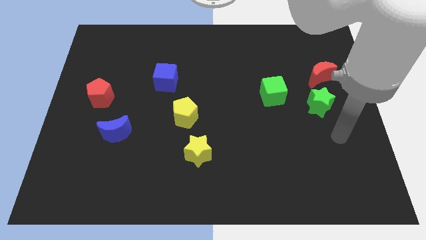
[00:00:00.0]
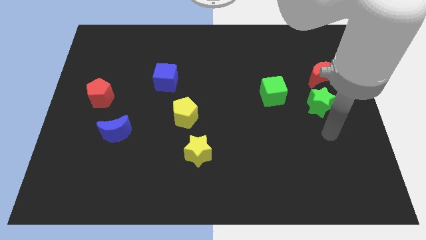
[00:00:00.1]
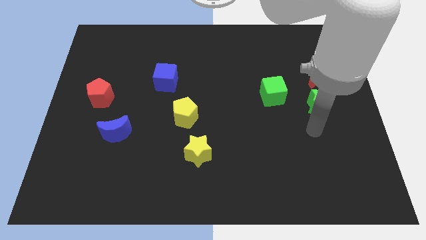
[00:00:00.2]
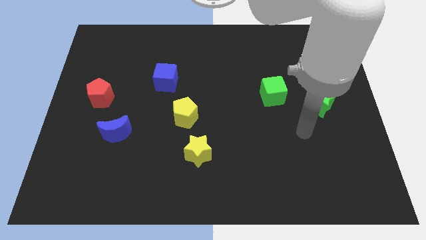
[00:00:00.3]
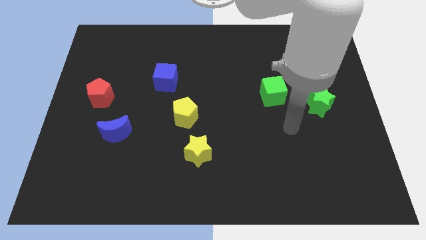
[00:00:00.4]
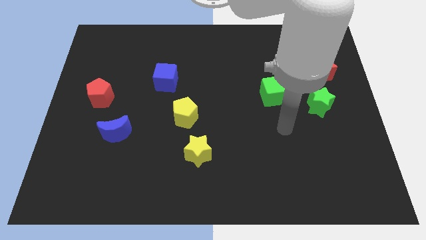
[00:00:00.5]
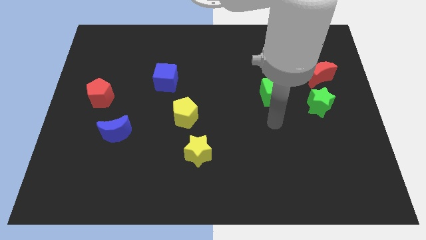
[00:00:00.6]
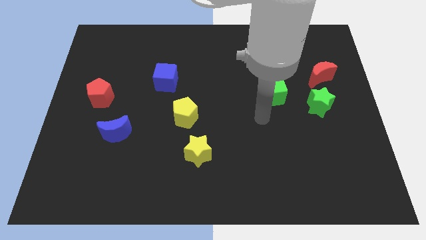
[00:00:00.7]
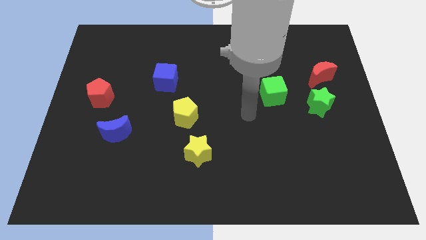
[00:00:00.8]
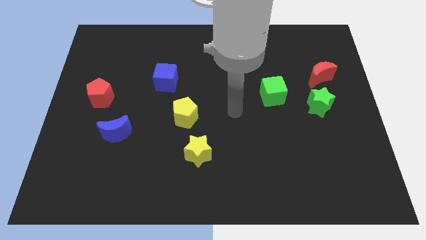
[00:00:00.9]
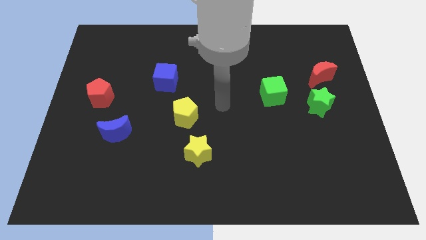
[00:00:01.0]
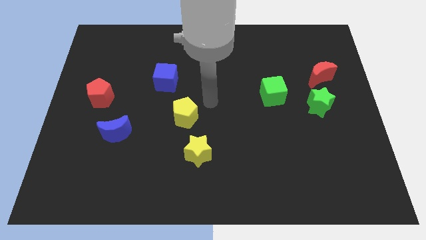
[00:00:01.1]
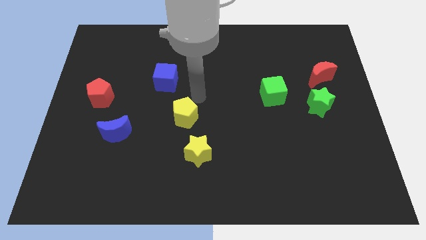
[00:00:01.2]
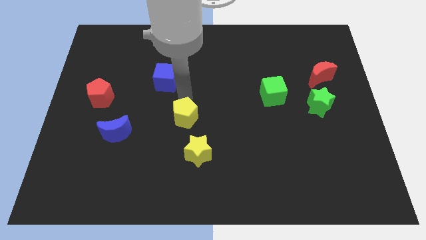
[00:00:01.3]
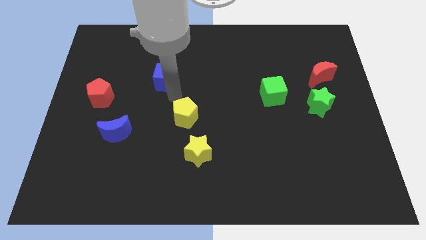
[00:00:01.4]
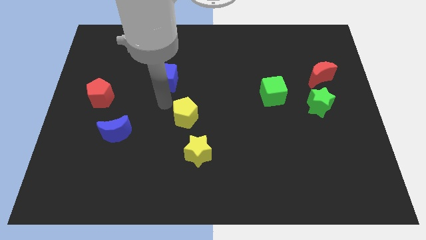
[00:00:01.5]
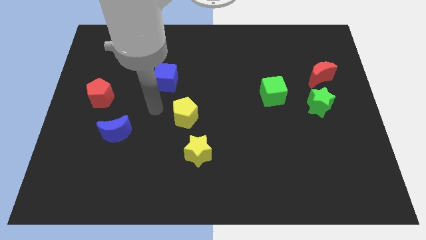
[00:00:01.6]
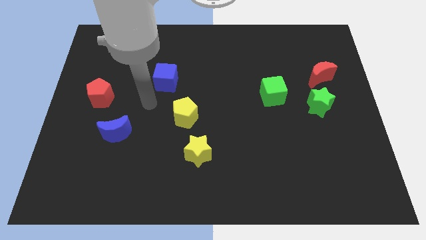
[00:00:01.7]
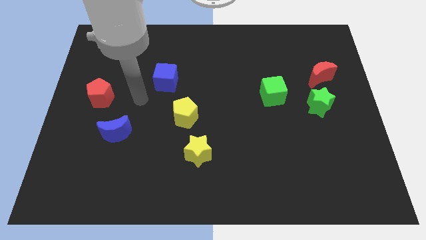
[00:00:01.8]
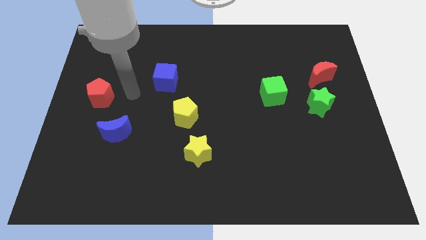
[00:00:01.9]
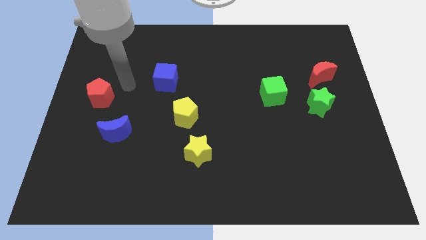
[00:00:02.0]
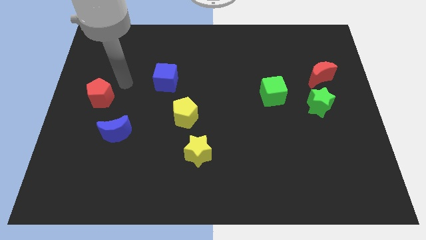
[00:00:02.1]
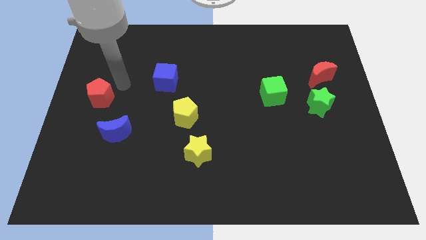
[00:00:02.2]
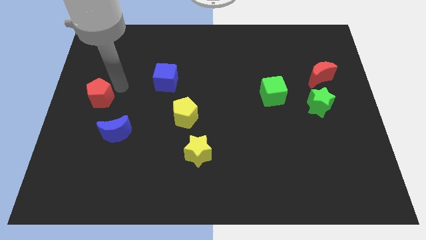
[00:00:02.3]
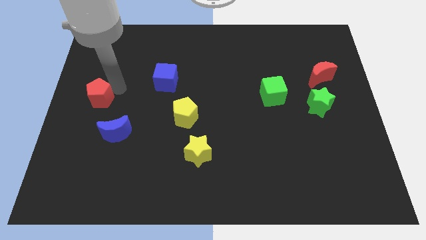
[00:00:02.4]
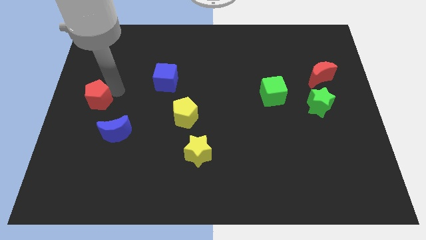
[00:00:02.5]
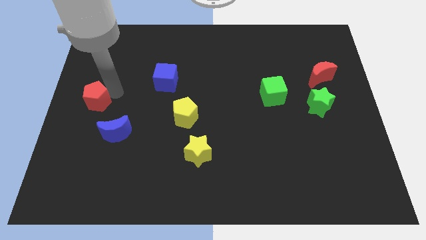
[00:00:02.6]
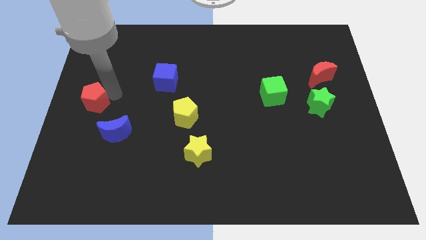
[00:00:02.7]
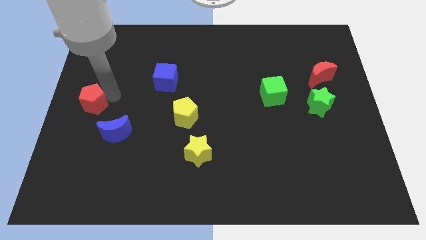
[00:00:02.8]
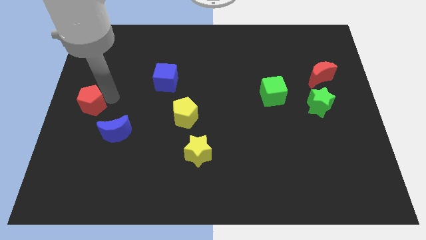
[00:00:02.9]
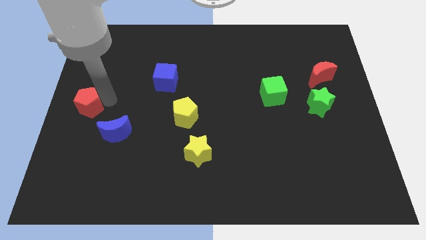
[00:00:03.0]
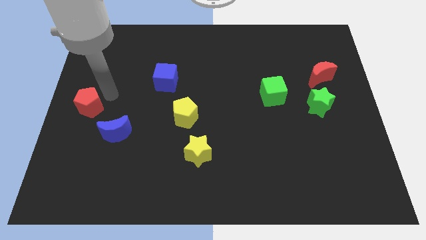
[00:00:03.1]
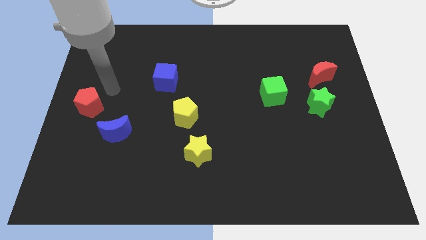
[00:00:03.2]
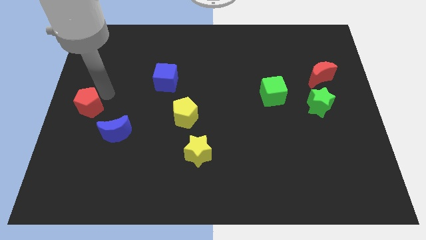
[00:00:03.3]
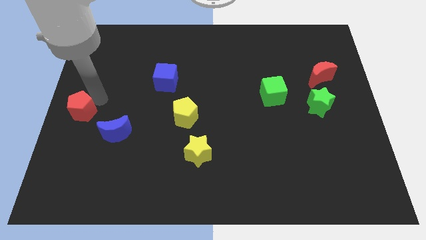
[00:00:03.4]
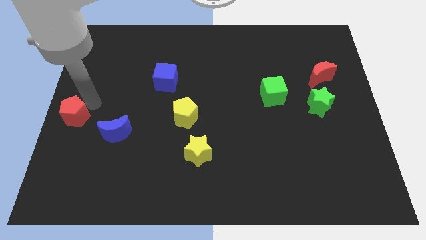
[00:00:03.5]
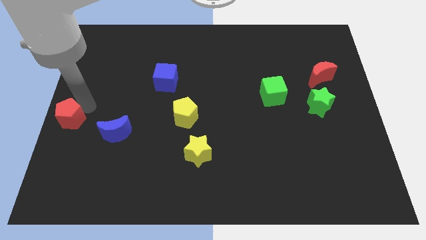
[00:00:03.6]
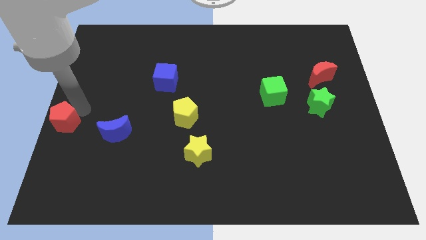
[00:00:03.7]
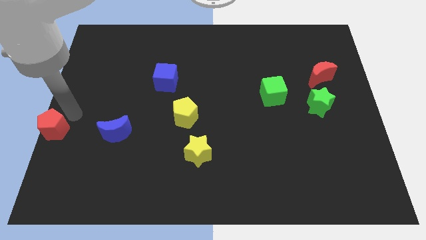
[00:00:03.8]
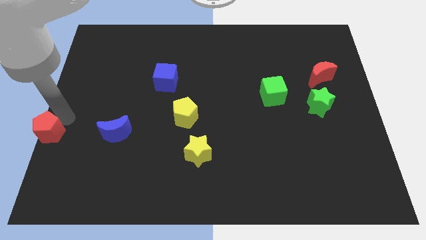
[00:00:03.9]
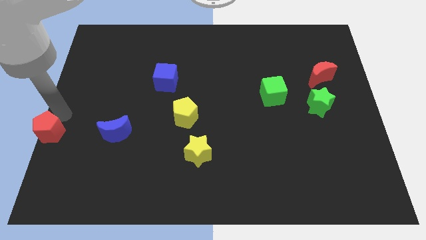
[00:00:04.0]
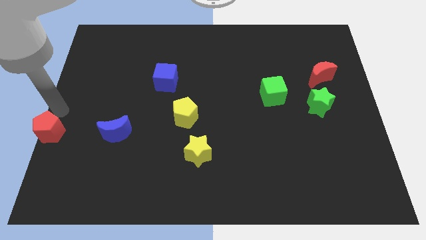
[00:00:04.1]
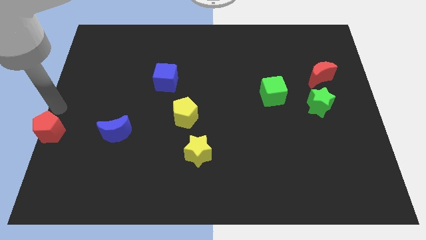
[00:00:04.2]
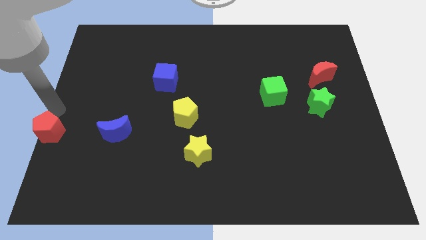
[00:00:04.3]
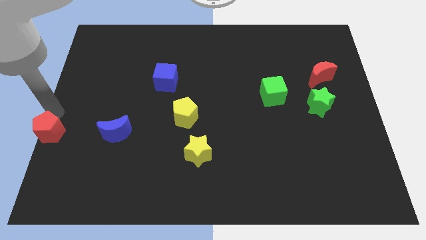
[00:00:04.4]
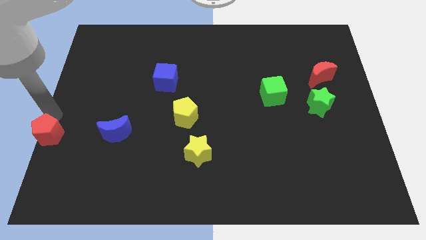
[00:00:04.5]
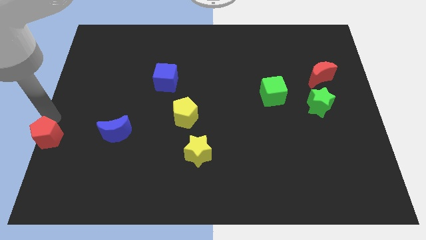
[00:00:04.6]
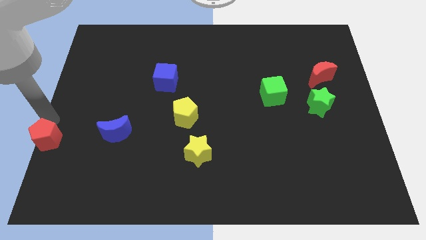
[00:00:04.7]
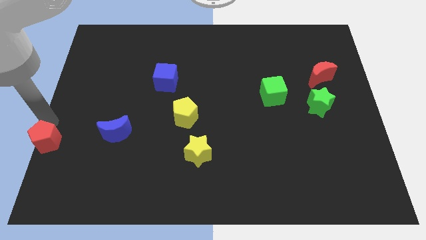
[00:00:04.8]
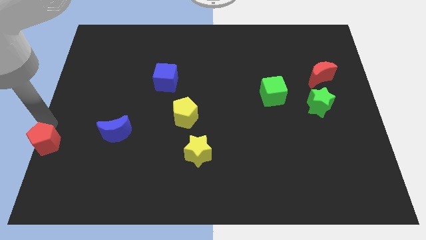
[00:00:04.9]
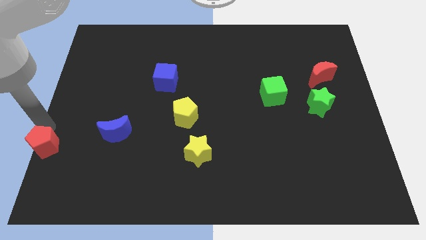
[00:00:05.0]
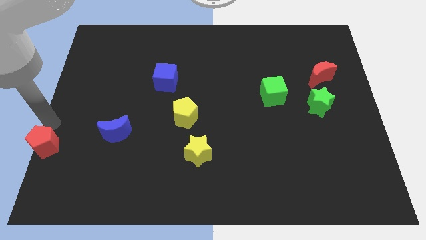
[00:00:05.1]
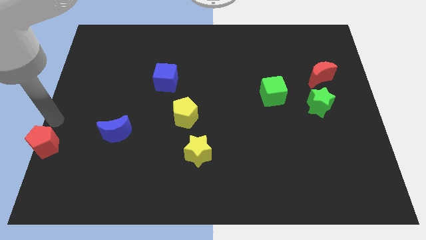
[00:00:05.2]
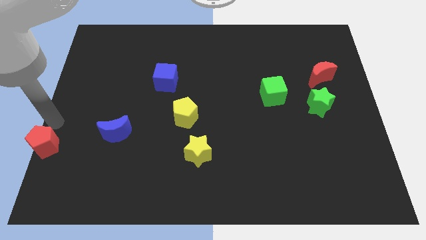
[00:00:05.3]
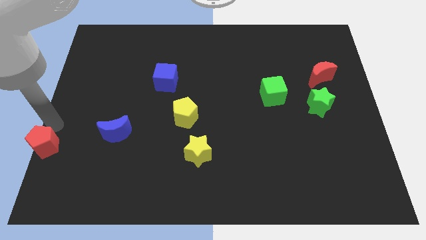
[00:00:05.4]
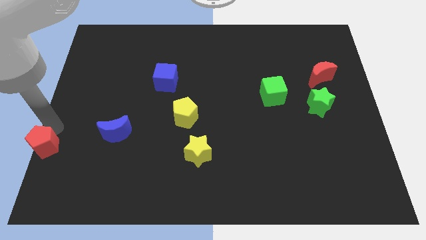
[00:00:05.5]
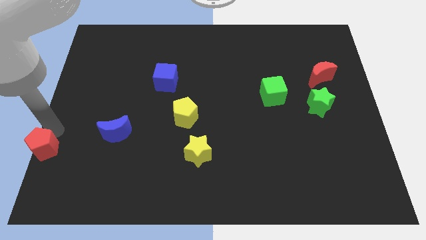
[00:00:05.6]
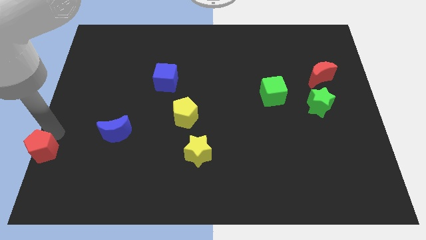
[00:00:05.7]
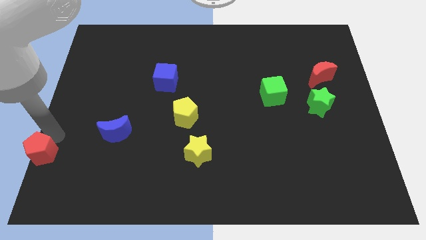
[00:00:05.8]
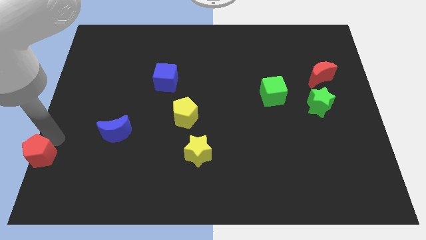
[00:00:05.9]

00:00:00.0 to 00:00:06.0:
move the red pentagon to the lower left corner
